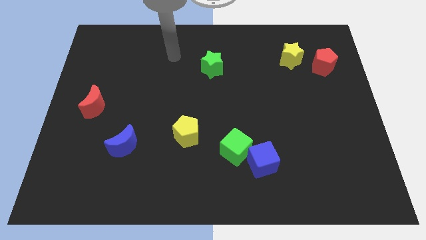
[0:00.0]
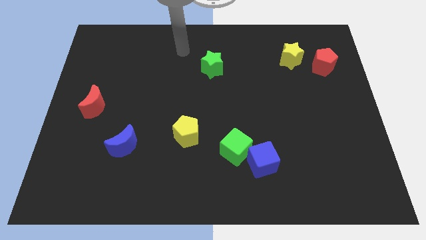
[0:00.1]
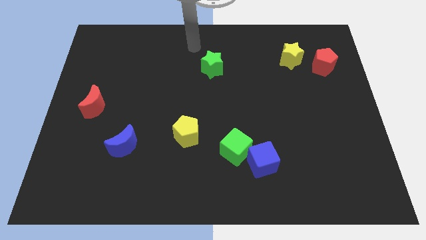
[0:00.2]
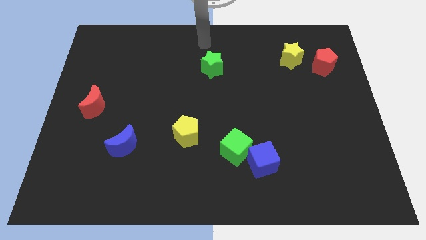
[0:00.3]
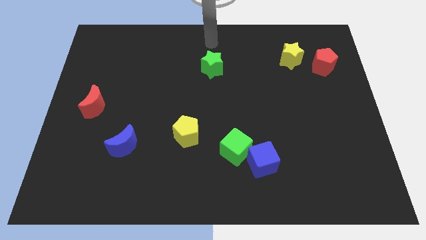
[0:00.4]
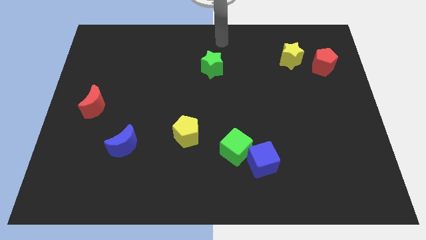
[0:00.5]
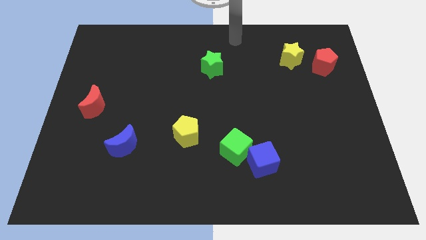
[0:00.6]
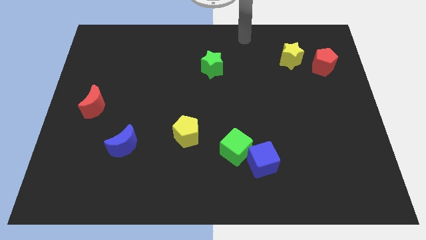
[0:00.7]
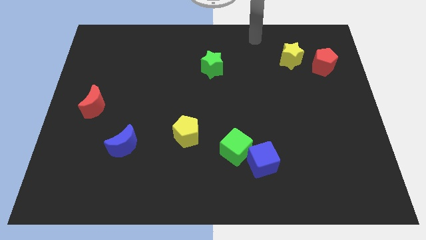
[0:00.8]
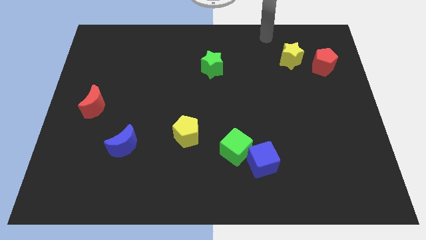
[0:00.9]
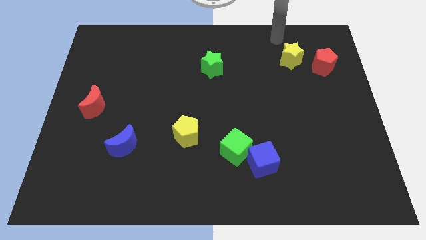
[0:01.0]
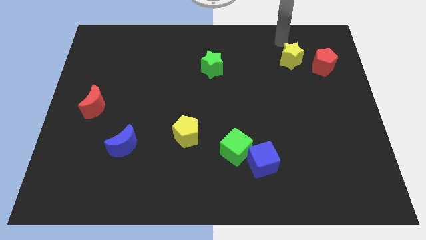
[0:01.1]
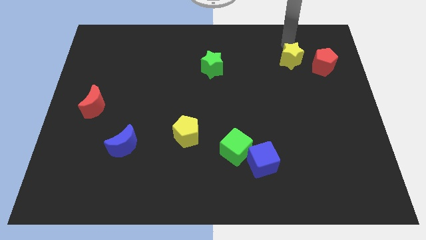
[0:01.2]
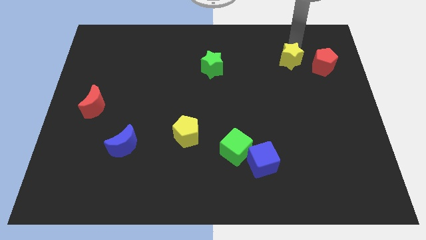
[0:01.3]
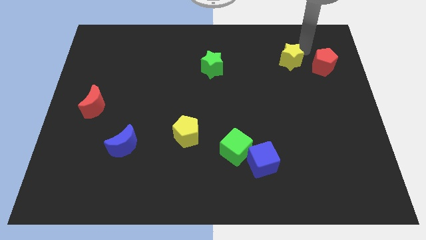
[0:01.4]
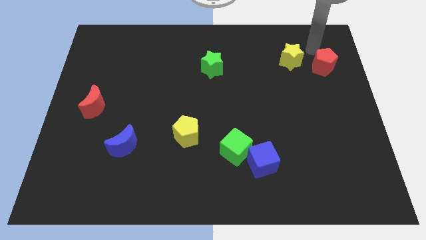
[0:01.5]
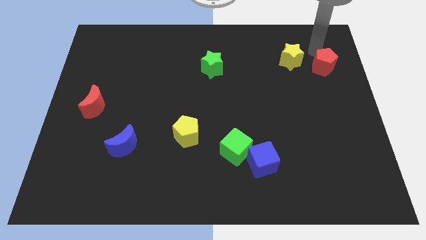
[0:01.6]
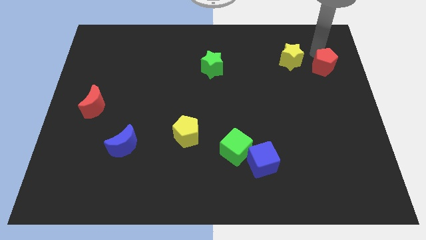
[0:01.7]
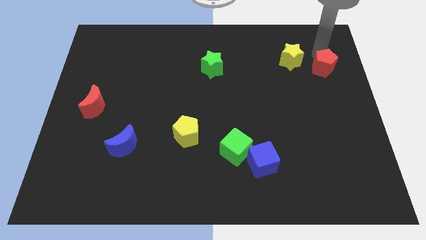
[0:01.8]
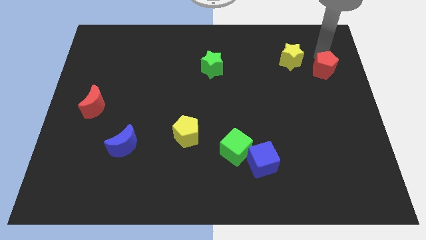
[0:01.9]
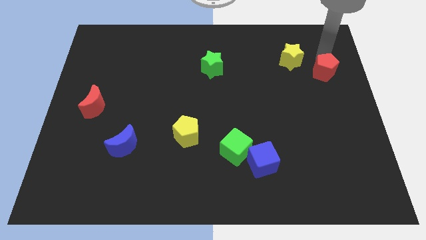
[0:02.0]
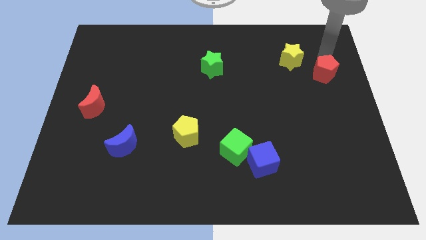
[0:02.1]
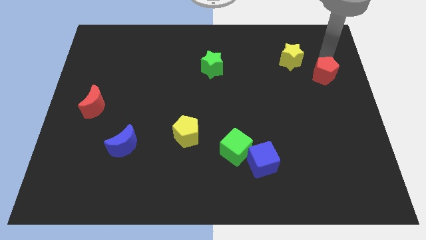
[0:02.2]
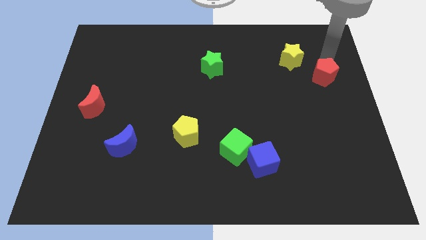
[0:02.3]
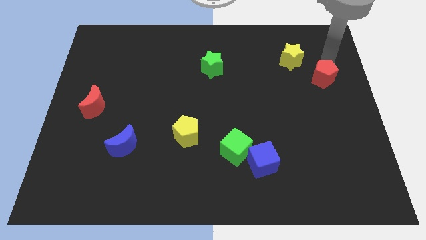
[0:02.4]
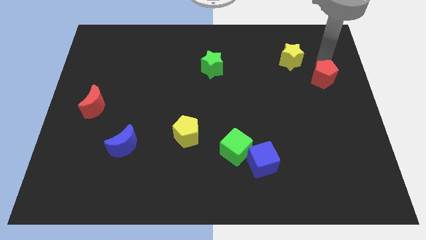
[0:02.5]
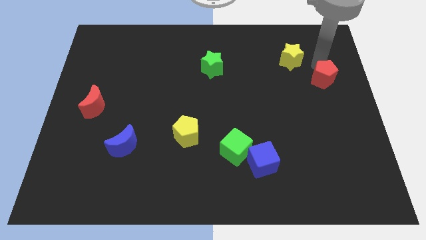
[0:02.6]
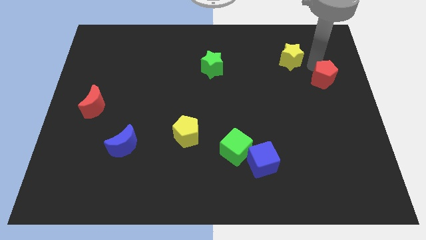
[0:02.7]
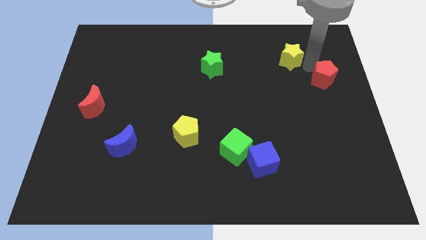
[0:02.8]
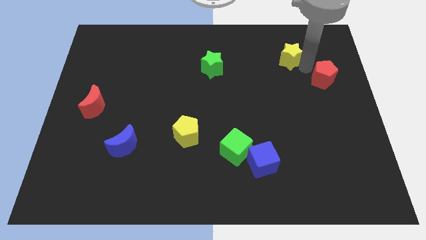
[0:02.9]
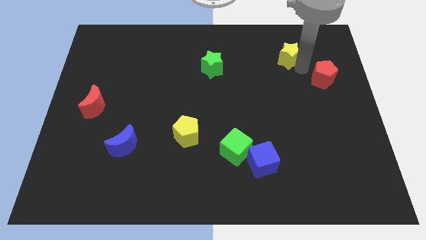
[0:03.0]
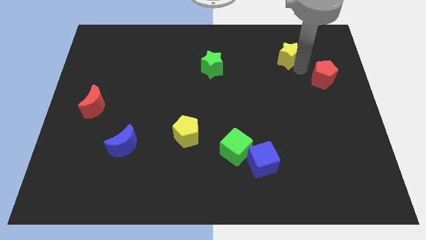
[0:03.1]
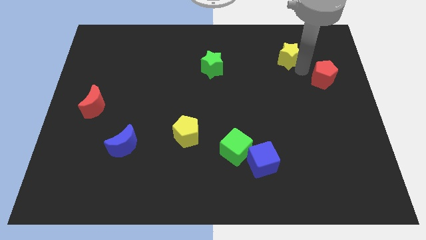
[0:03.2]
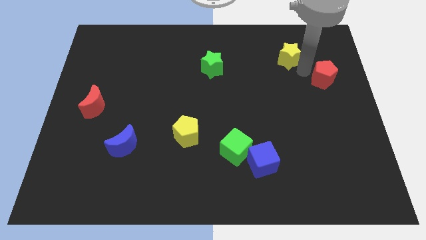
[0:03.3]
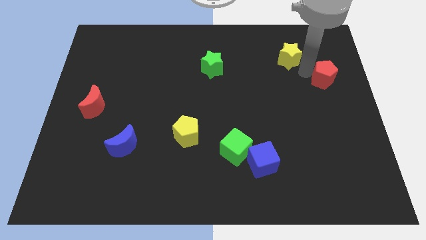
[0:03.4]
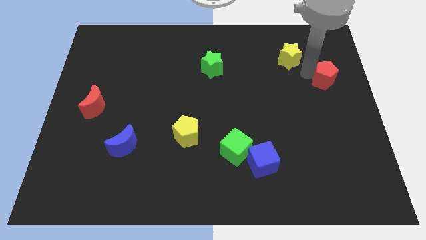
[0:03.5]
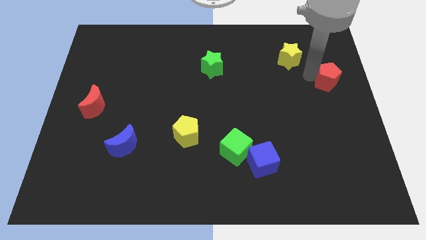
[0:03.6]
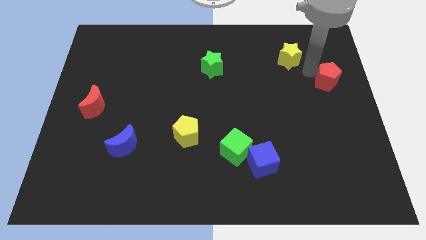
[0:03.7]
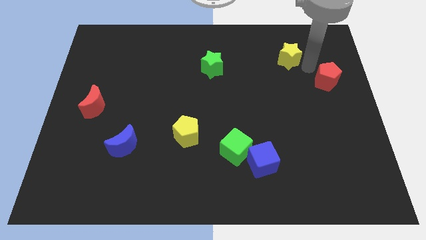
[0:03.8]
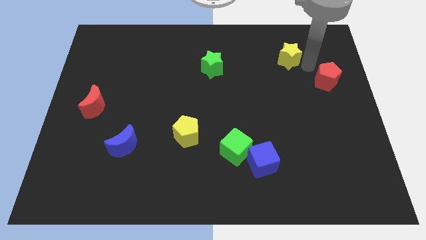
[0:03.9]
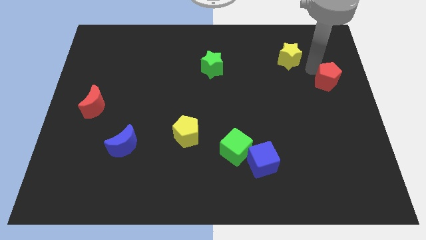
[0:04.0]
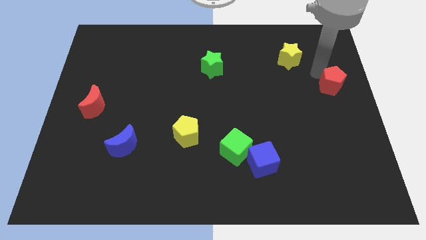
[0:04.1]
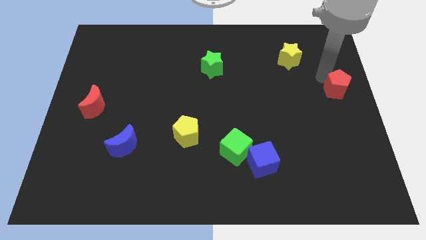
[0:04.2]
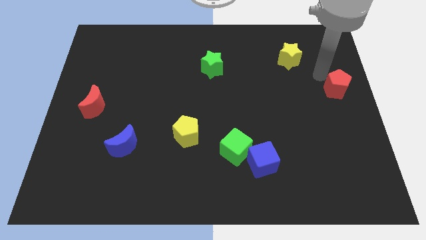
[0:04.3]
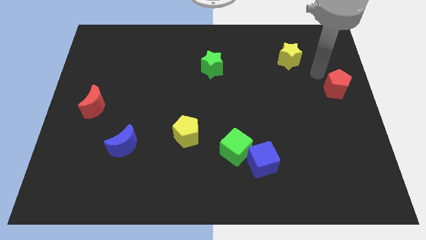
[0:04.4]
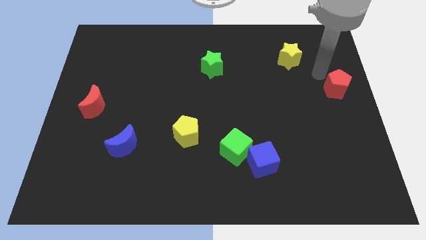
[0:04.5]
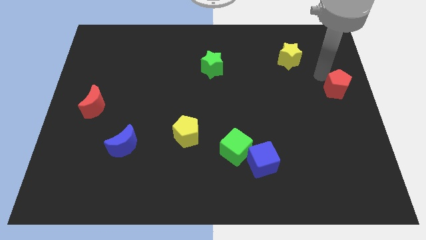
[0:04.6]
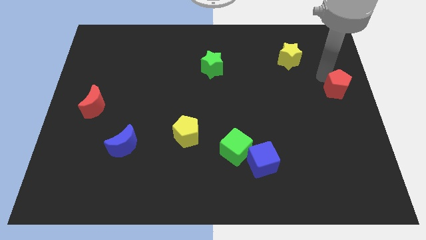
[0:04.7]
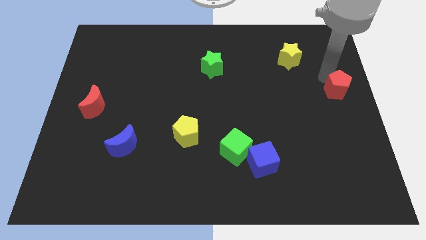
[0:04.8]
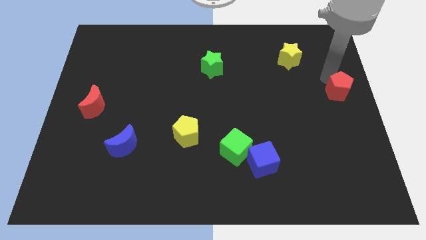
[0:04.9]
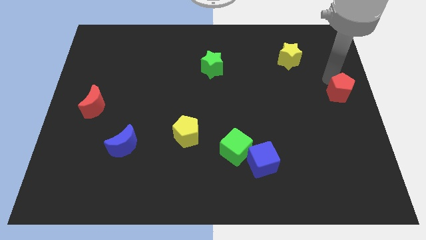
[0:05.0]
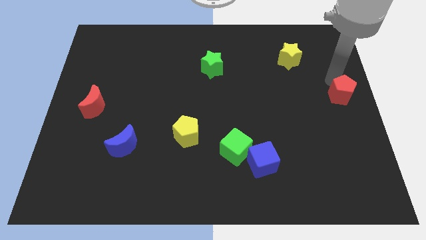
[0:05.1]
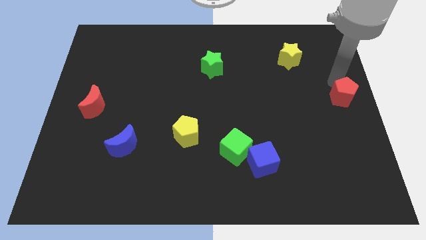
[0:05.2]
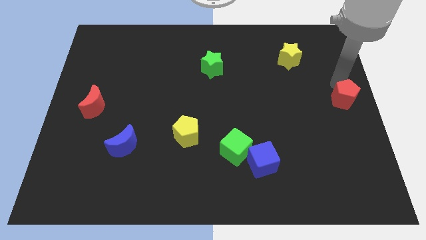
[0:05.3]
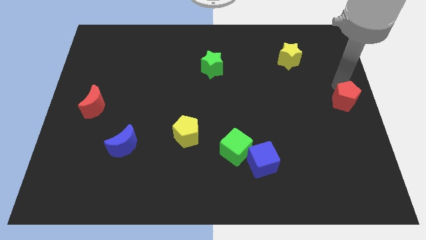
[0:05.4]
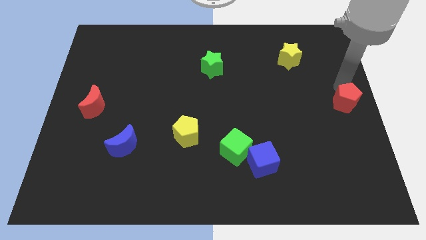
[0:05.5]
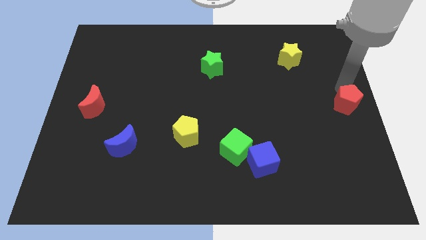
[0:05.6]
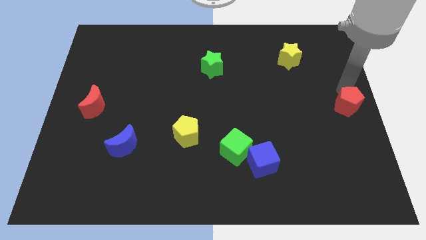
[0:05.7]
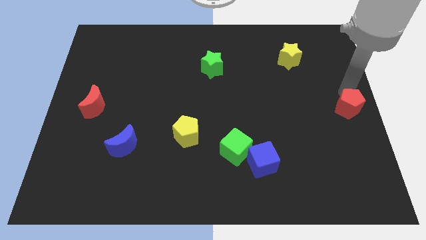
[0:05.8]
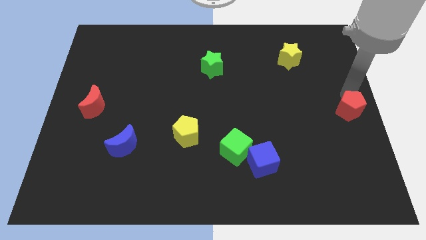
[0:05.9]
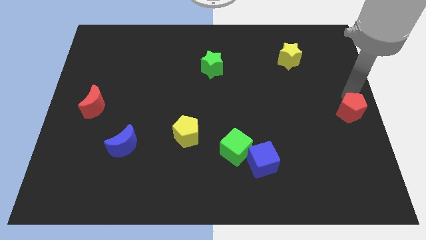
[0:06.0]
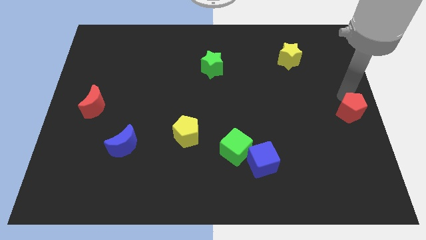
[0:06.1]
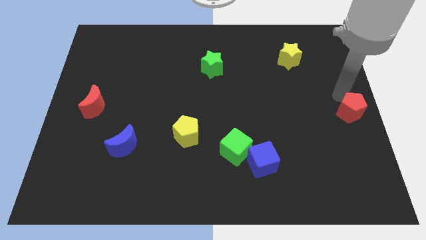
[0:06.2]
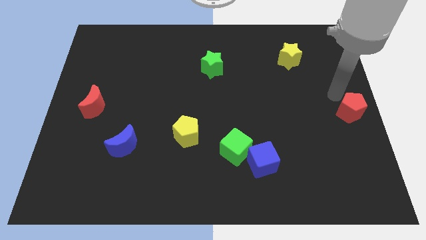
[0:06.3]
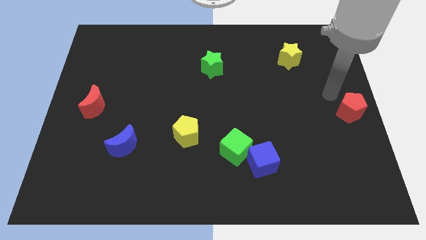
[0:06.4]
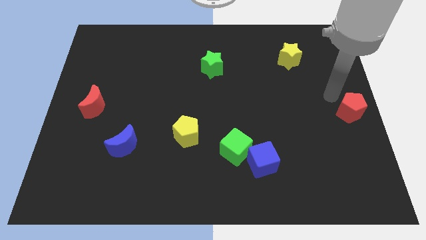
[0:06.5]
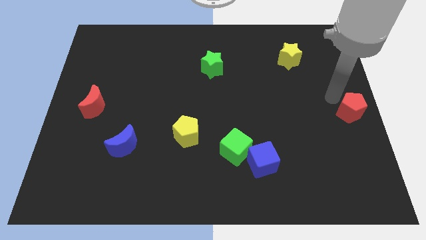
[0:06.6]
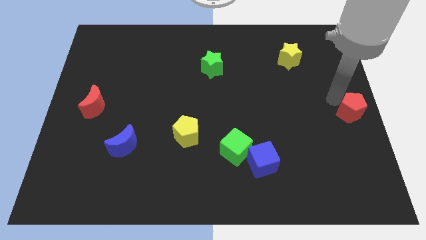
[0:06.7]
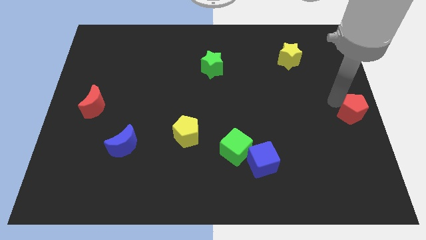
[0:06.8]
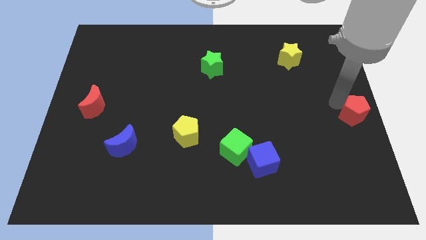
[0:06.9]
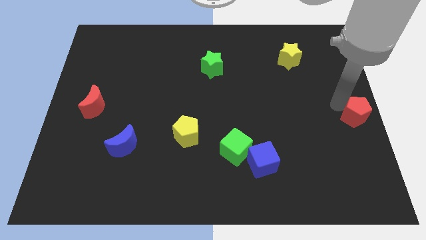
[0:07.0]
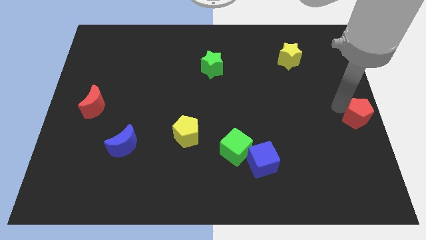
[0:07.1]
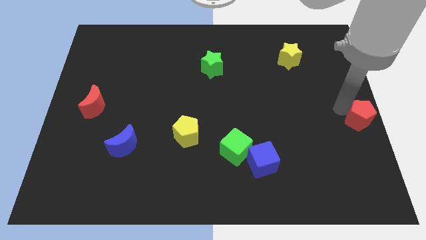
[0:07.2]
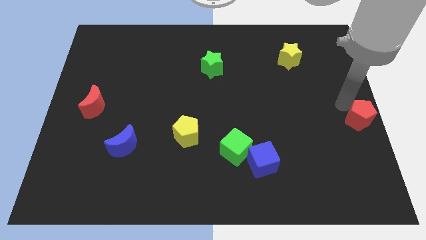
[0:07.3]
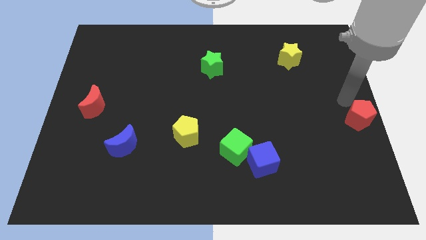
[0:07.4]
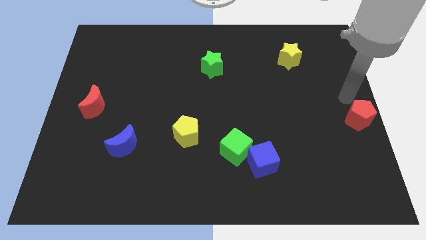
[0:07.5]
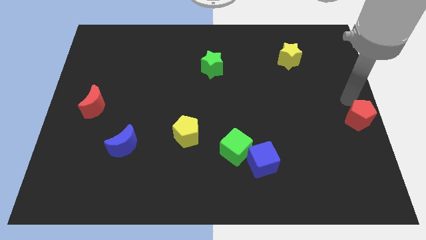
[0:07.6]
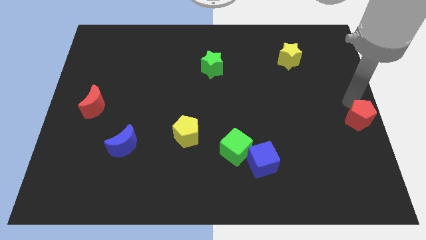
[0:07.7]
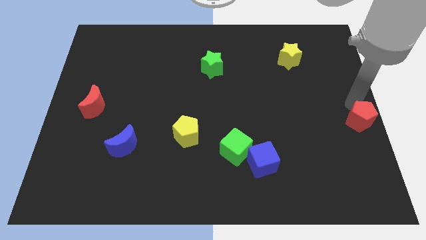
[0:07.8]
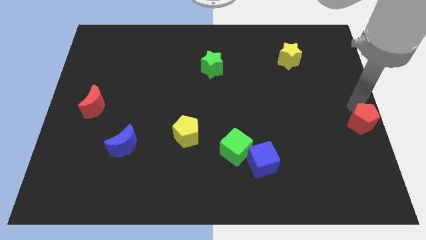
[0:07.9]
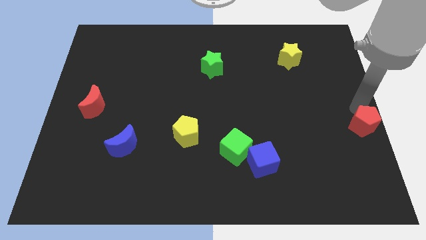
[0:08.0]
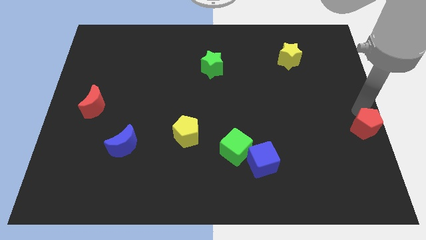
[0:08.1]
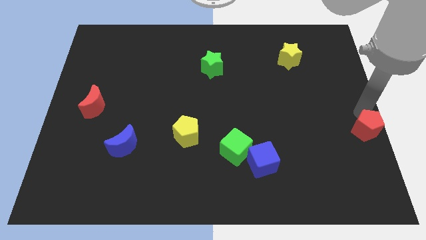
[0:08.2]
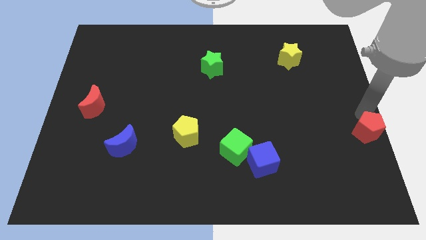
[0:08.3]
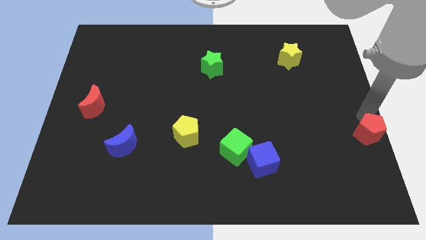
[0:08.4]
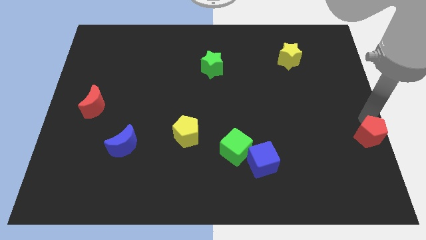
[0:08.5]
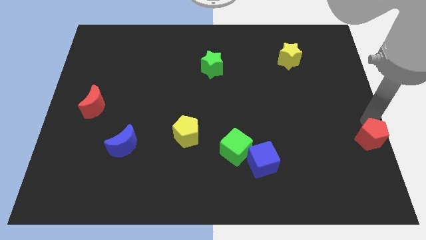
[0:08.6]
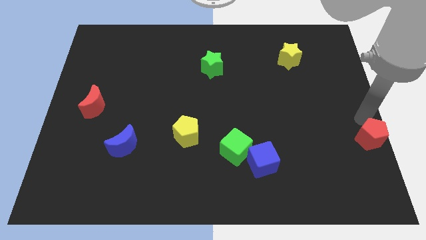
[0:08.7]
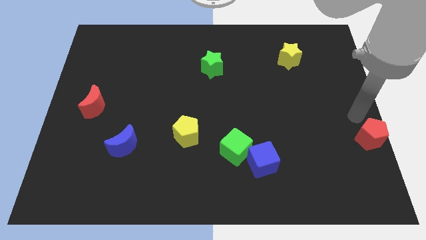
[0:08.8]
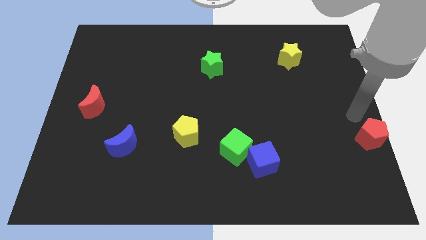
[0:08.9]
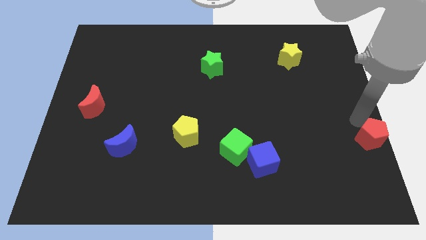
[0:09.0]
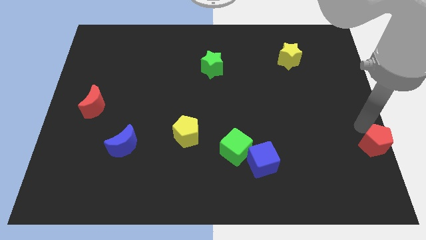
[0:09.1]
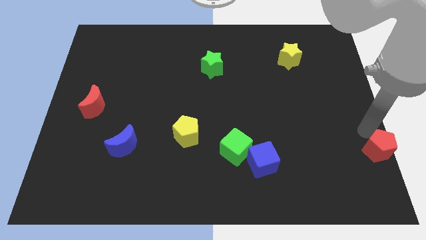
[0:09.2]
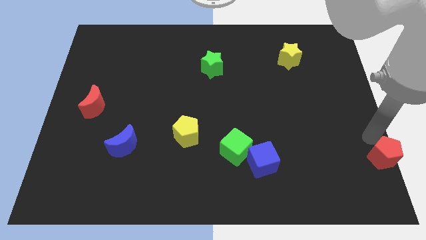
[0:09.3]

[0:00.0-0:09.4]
move the red pentagon to the bottom right corner
